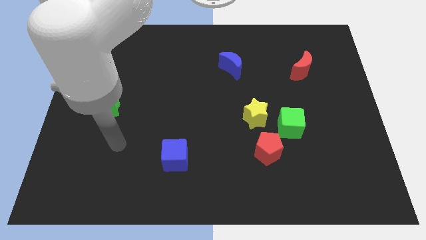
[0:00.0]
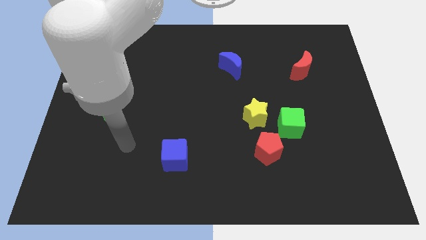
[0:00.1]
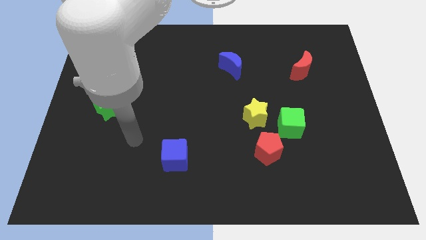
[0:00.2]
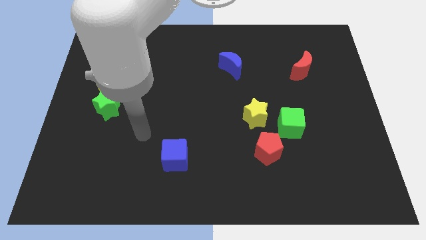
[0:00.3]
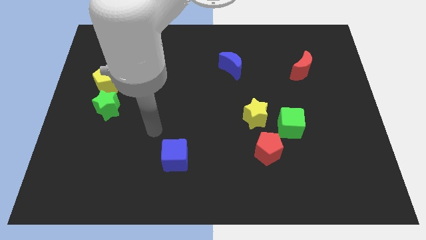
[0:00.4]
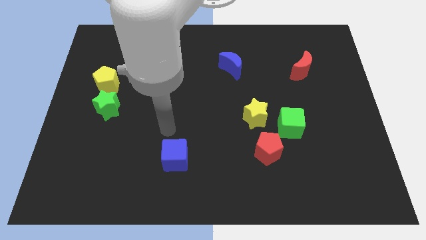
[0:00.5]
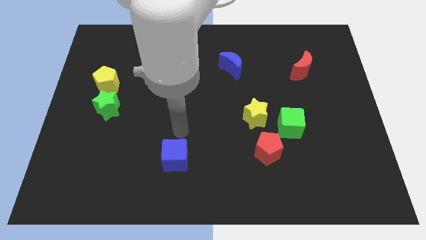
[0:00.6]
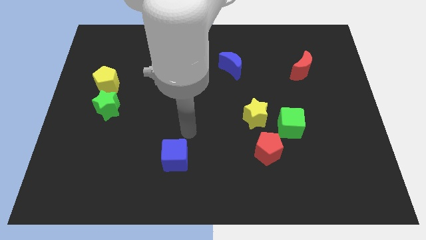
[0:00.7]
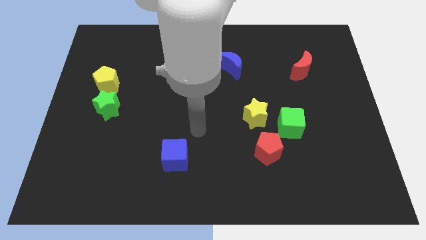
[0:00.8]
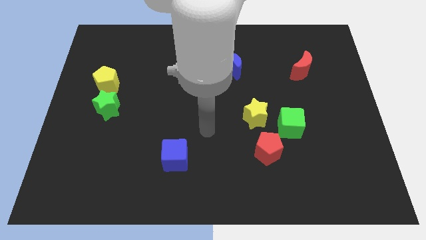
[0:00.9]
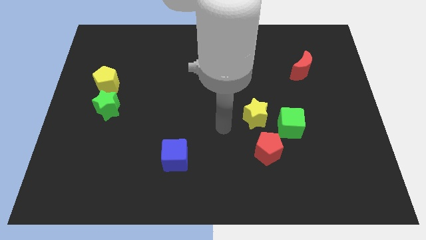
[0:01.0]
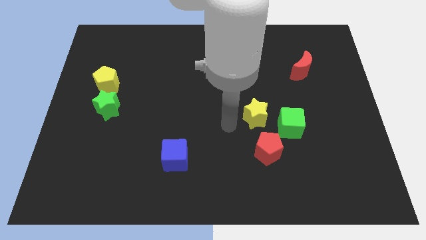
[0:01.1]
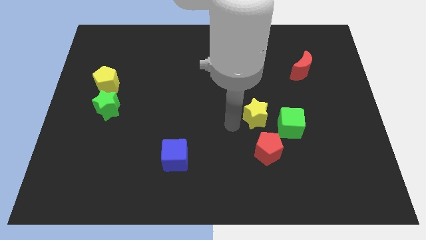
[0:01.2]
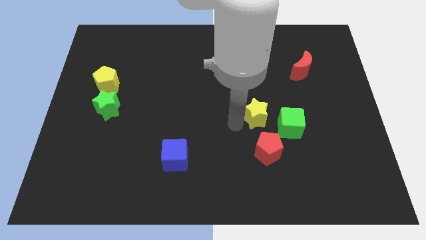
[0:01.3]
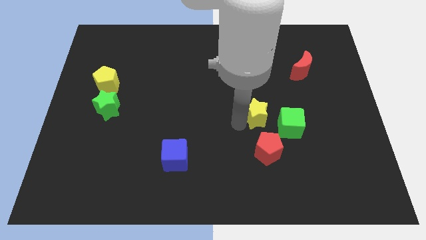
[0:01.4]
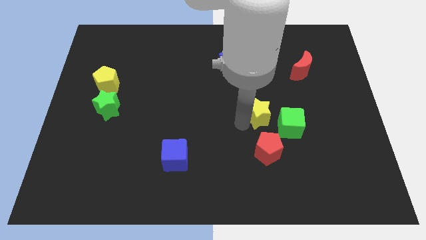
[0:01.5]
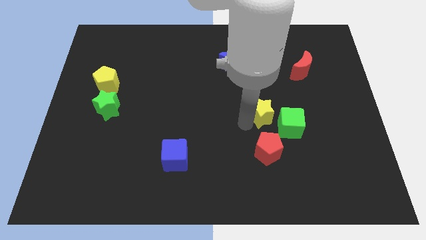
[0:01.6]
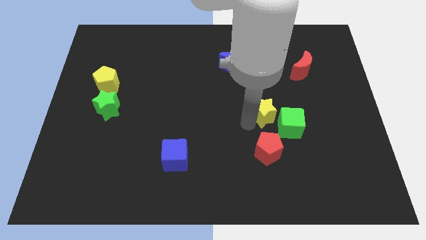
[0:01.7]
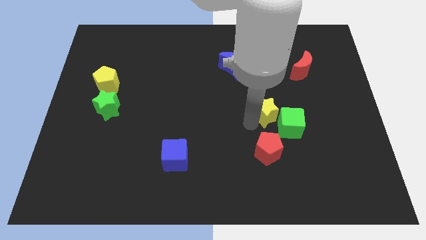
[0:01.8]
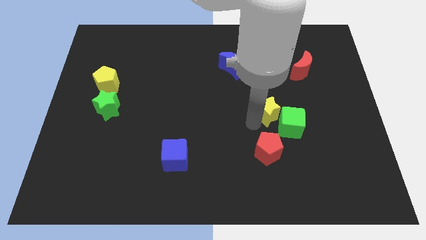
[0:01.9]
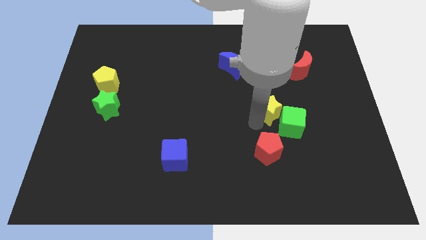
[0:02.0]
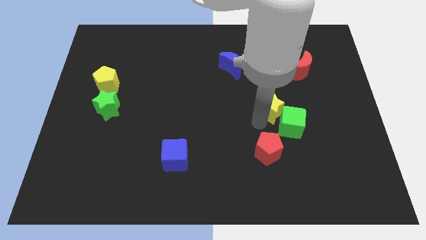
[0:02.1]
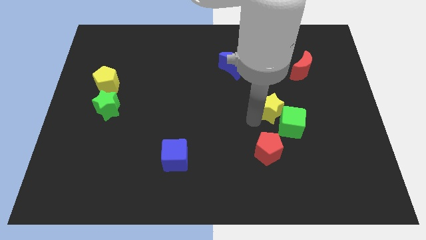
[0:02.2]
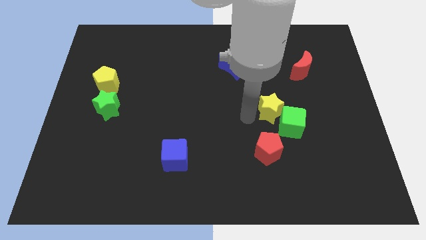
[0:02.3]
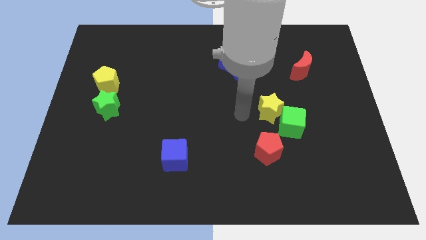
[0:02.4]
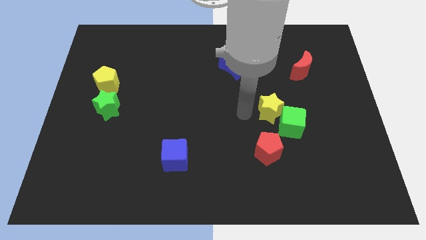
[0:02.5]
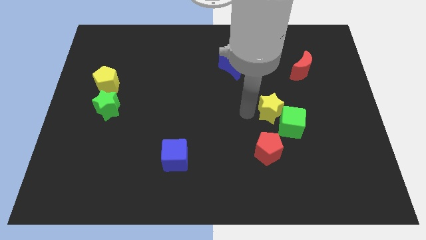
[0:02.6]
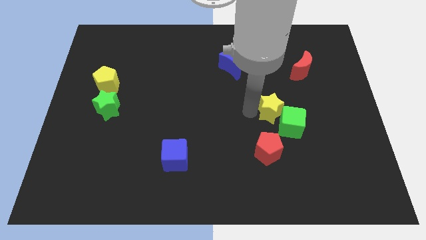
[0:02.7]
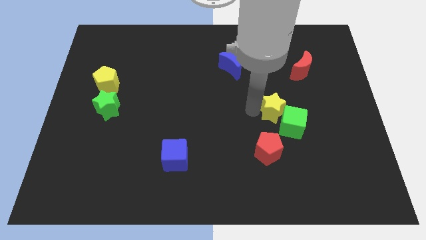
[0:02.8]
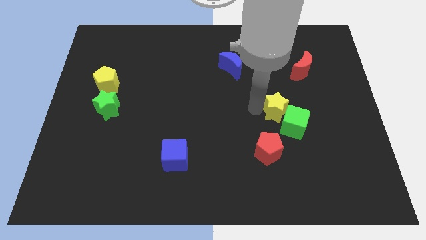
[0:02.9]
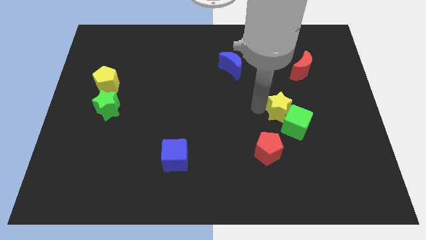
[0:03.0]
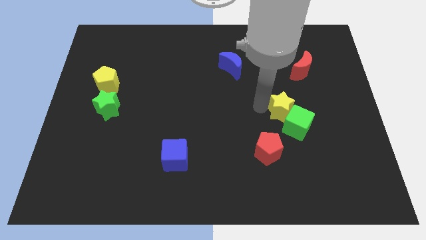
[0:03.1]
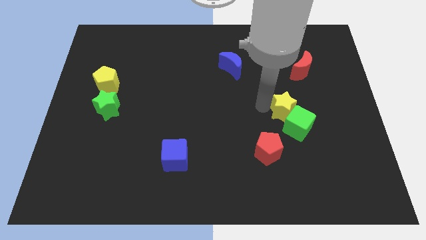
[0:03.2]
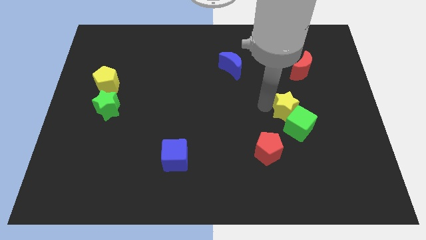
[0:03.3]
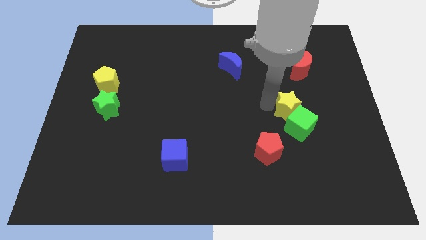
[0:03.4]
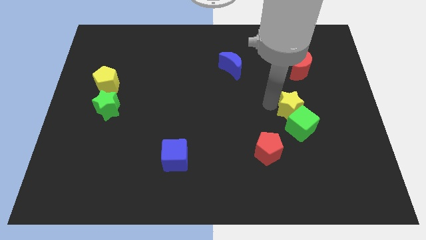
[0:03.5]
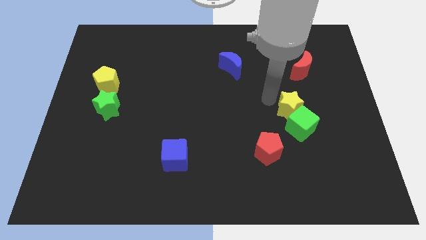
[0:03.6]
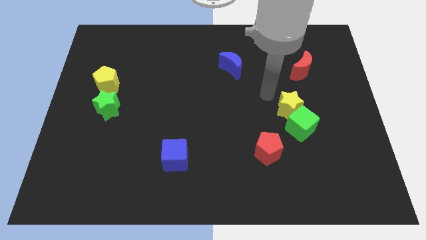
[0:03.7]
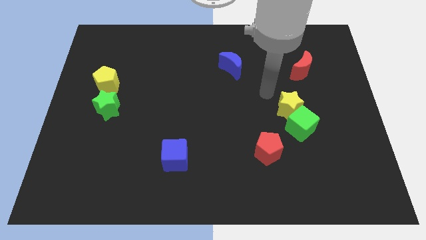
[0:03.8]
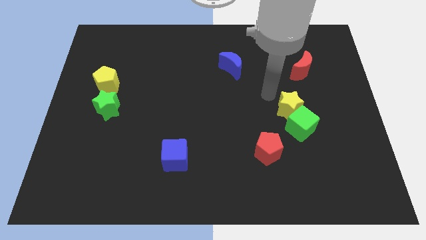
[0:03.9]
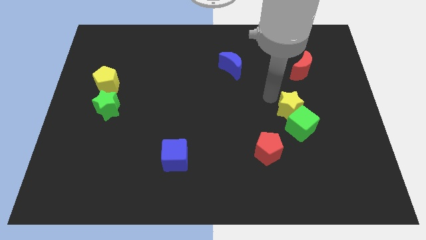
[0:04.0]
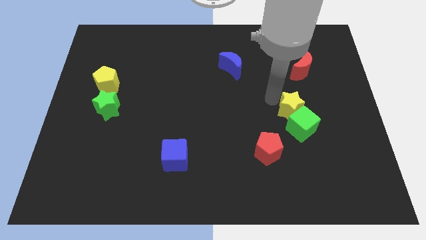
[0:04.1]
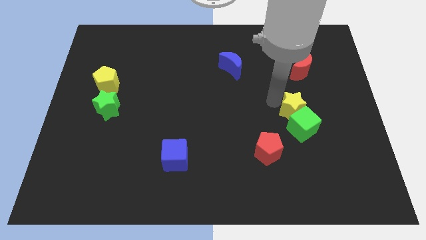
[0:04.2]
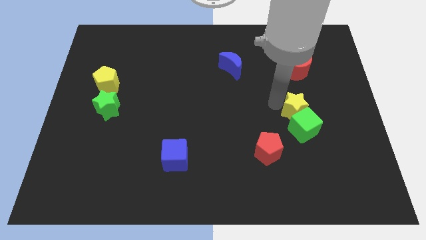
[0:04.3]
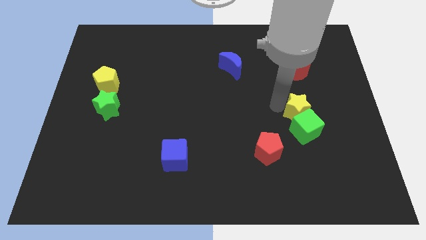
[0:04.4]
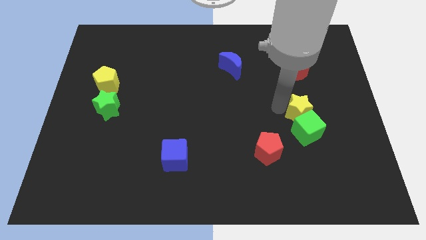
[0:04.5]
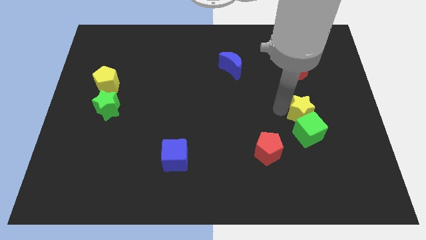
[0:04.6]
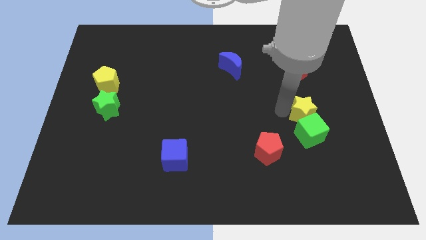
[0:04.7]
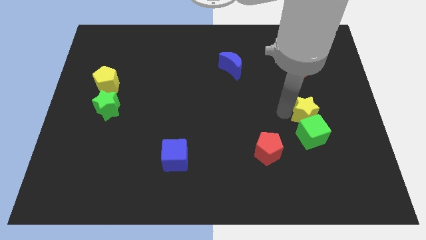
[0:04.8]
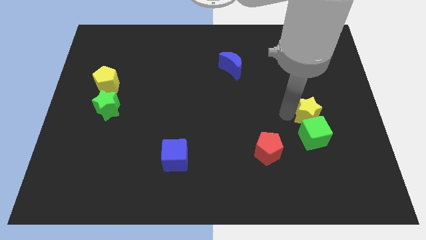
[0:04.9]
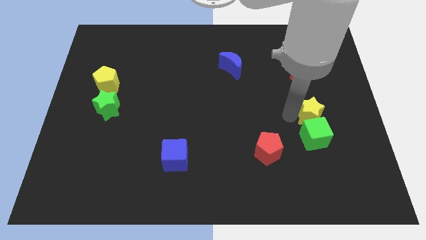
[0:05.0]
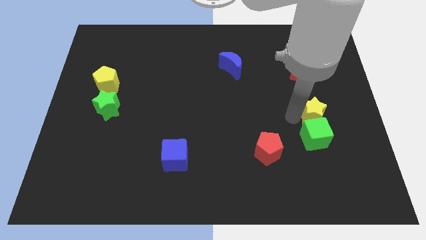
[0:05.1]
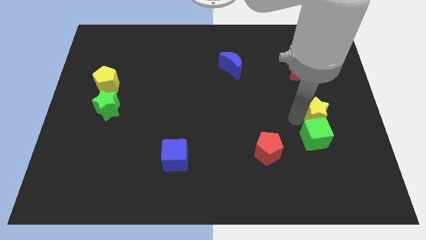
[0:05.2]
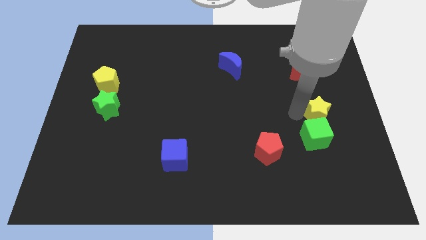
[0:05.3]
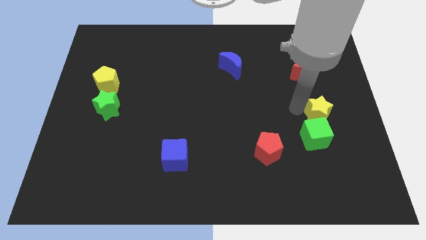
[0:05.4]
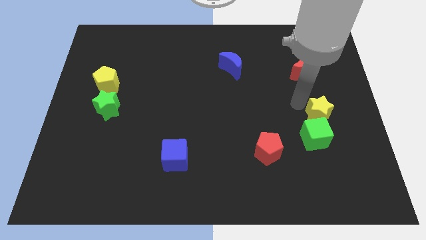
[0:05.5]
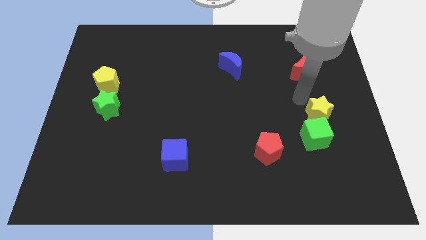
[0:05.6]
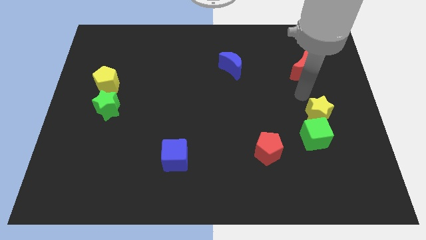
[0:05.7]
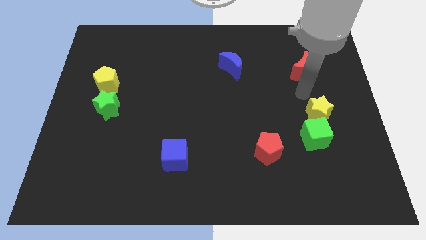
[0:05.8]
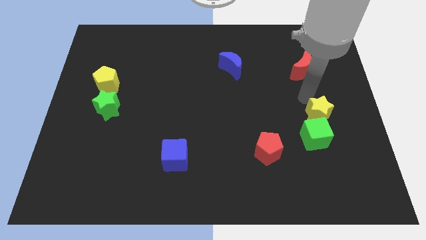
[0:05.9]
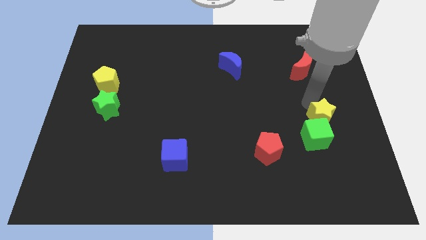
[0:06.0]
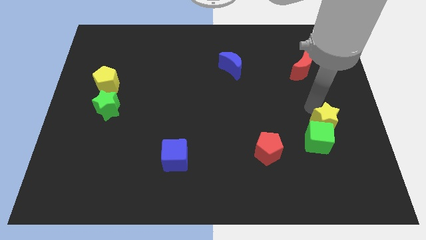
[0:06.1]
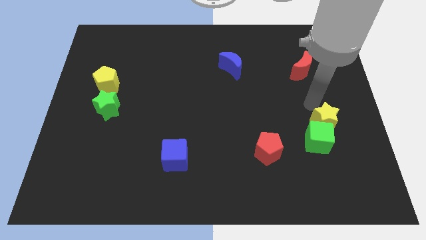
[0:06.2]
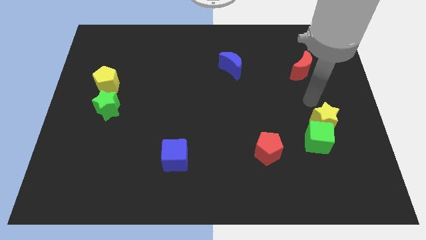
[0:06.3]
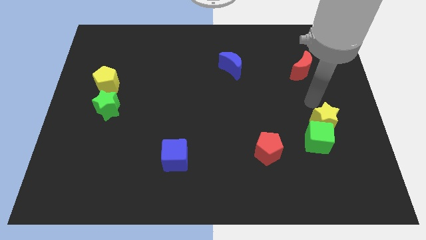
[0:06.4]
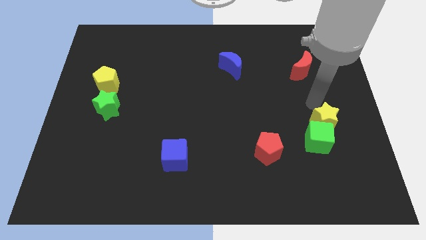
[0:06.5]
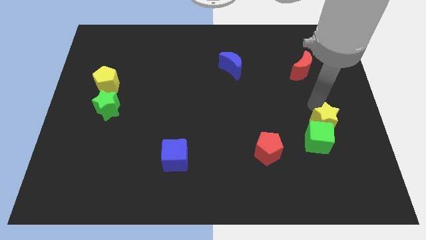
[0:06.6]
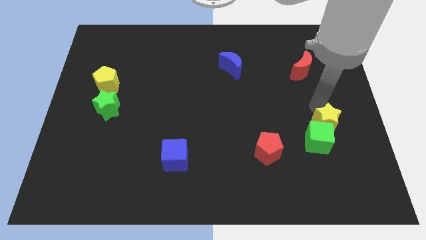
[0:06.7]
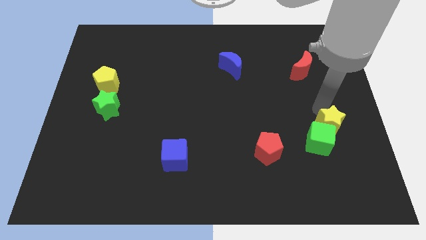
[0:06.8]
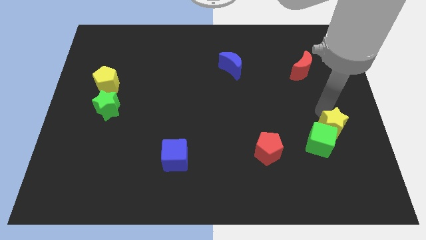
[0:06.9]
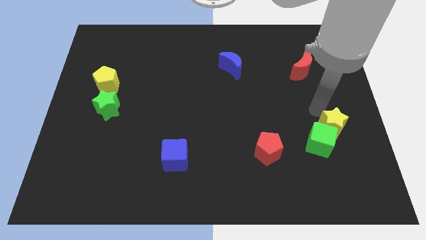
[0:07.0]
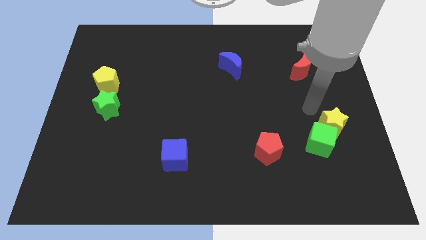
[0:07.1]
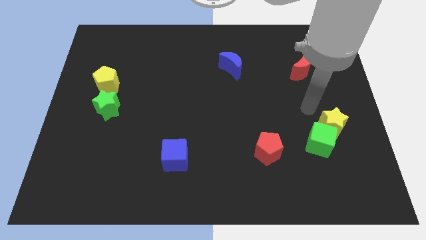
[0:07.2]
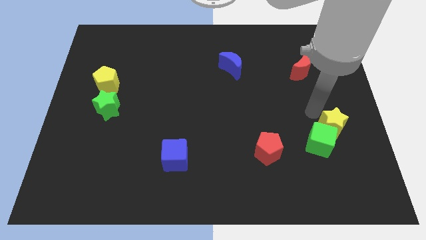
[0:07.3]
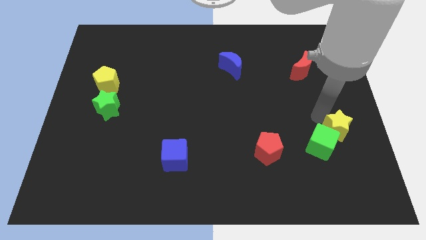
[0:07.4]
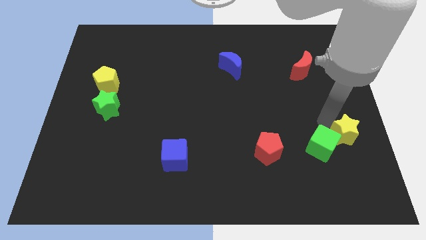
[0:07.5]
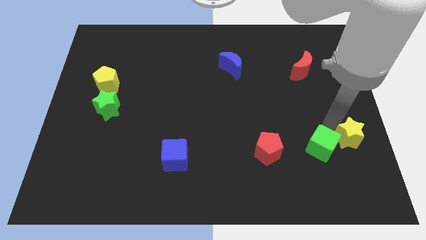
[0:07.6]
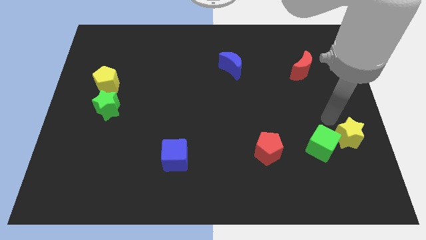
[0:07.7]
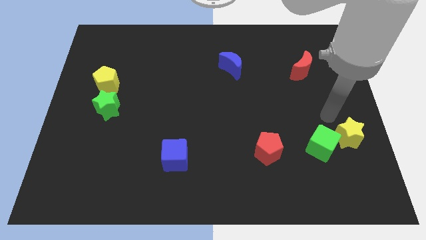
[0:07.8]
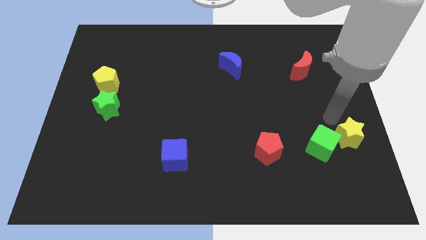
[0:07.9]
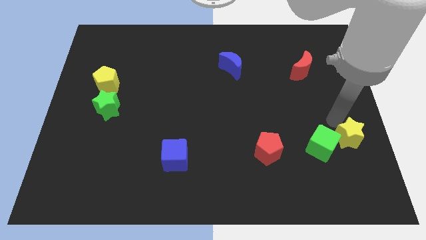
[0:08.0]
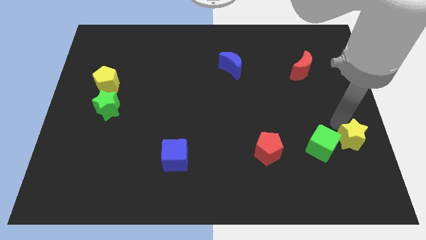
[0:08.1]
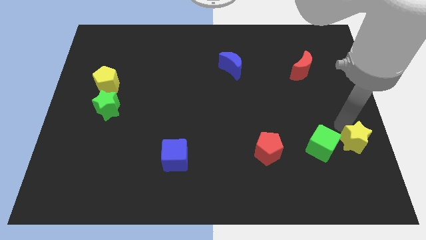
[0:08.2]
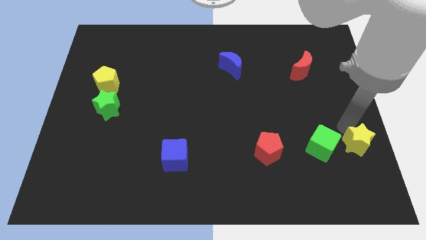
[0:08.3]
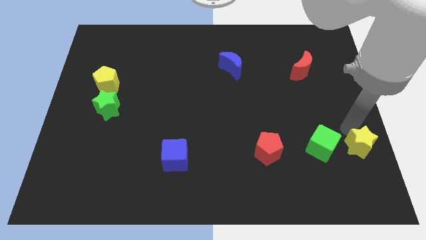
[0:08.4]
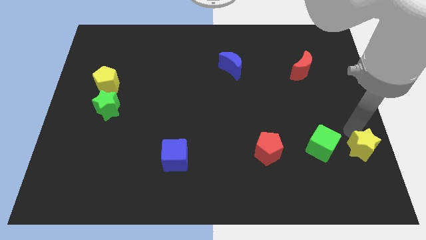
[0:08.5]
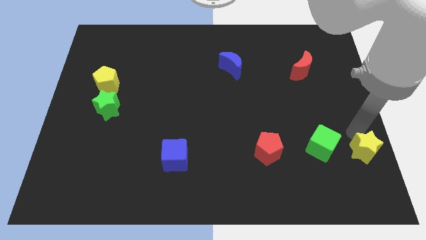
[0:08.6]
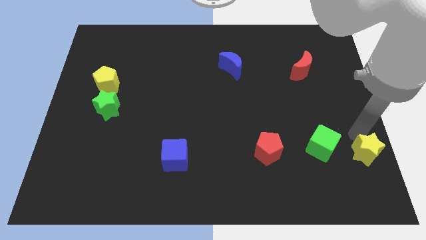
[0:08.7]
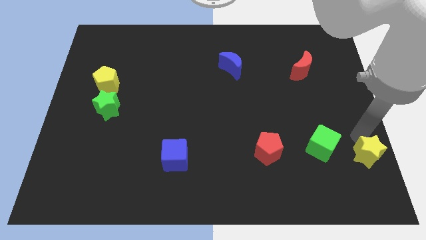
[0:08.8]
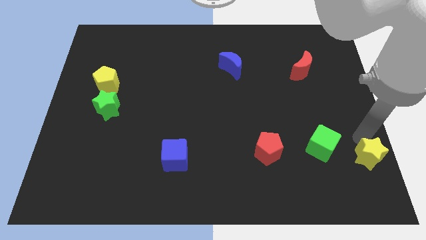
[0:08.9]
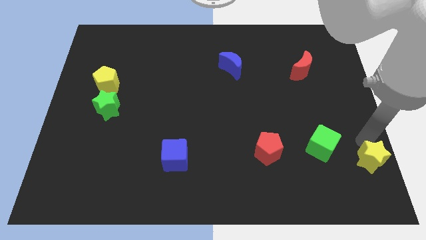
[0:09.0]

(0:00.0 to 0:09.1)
slide the yellow star to the lower right corner
